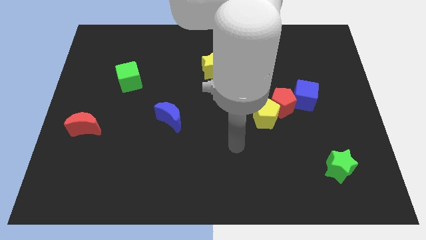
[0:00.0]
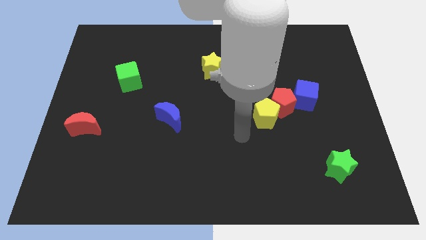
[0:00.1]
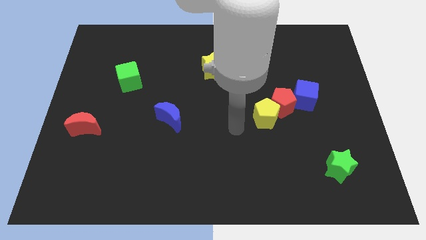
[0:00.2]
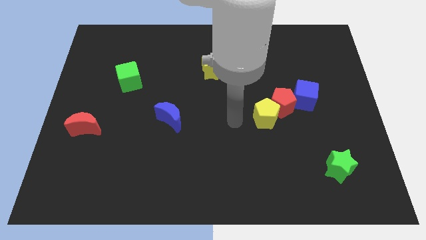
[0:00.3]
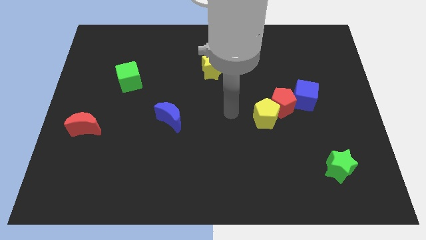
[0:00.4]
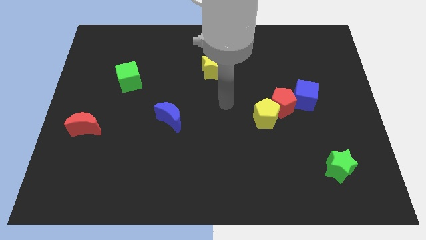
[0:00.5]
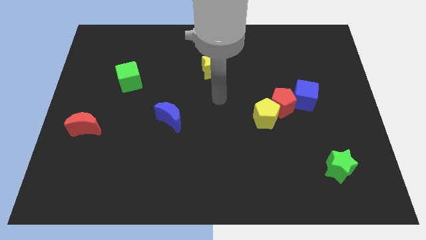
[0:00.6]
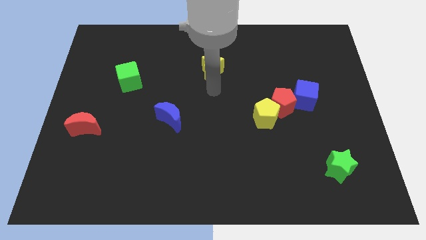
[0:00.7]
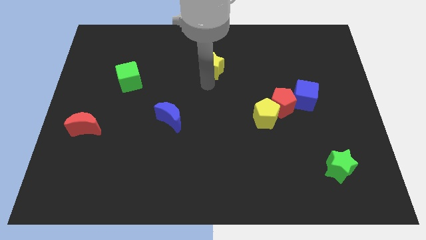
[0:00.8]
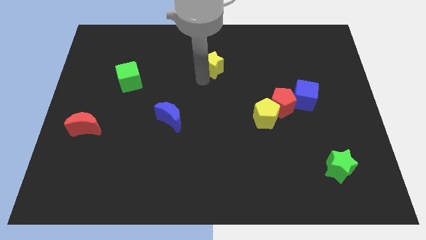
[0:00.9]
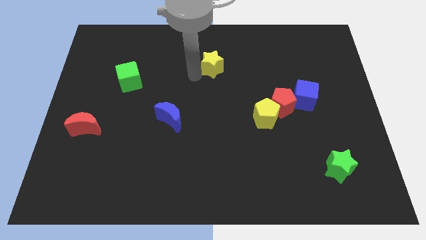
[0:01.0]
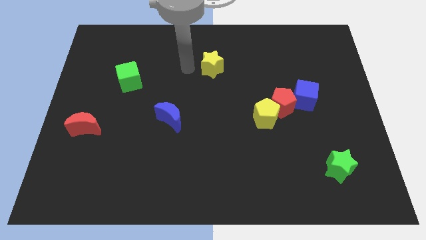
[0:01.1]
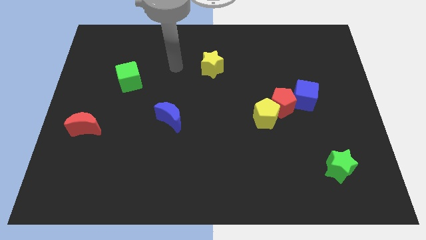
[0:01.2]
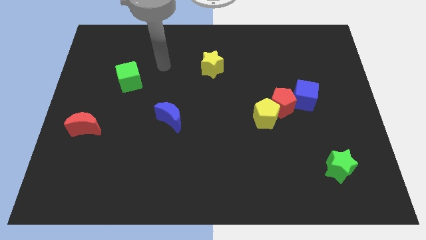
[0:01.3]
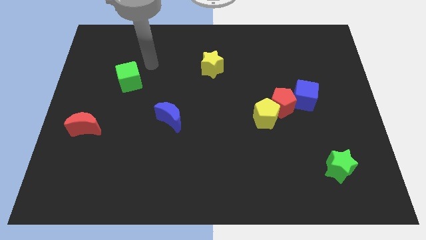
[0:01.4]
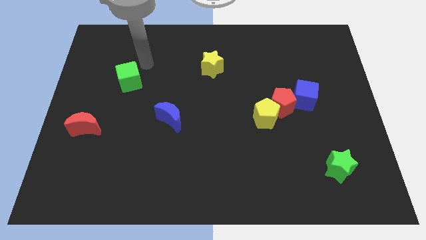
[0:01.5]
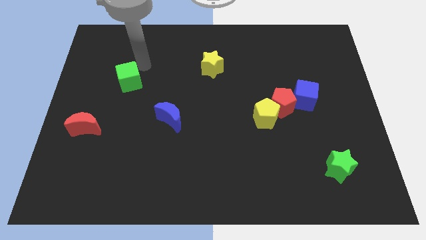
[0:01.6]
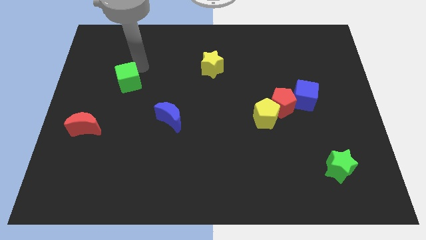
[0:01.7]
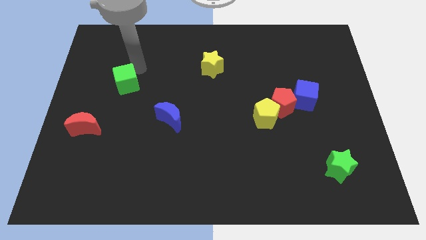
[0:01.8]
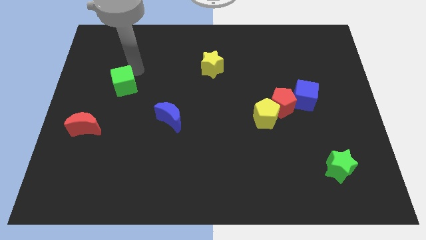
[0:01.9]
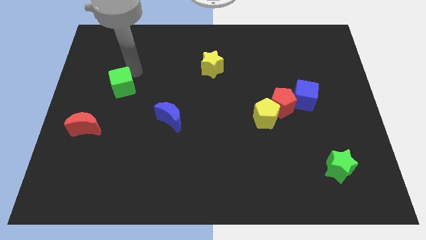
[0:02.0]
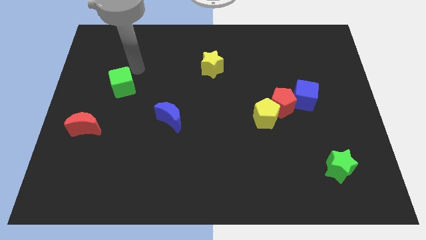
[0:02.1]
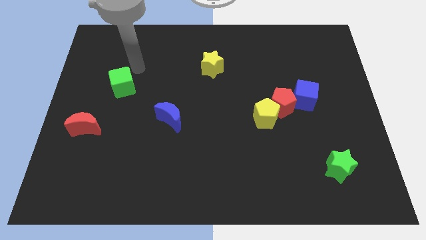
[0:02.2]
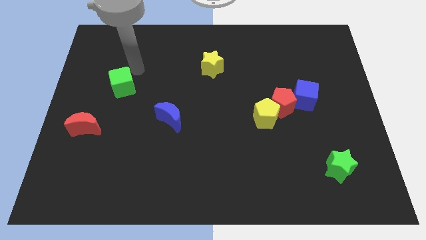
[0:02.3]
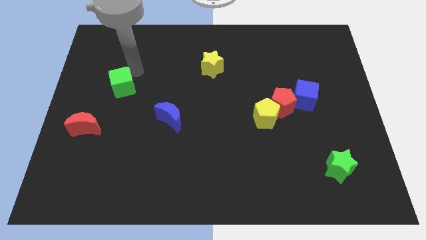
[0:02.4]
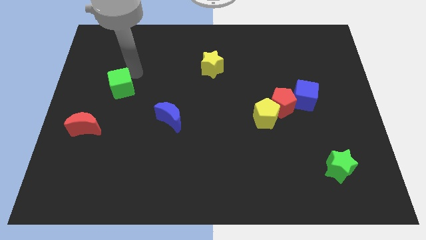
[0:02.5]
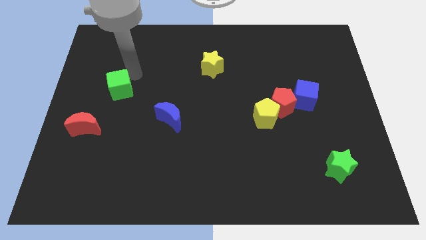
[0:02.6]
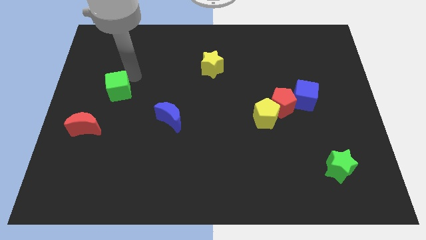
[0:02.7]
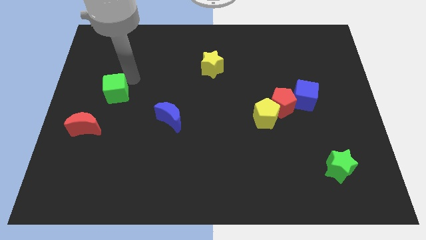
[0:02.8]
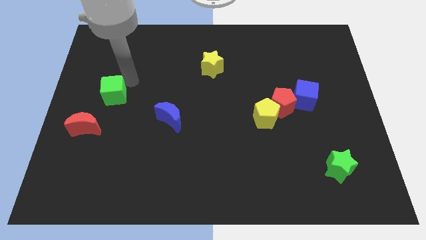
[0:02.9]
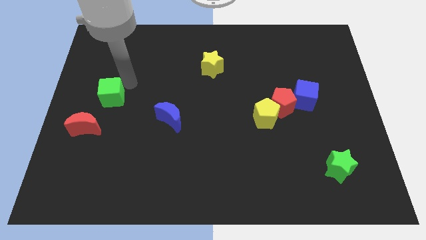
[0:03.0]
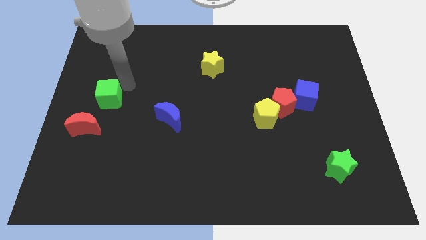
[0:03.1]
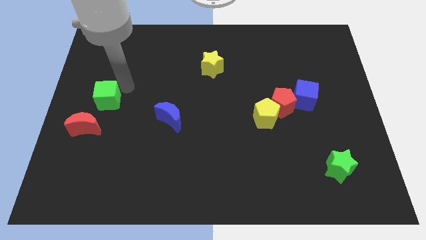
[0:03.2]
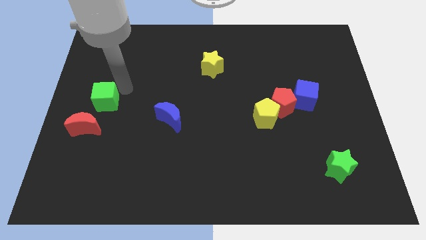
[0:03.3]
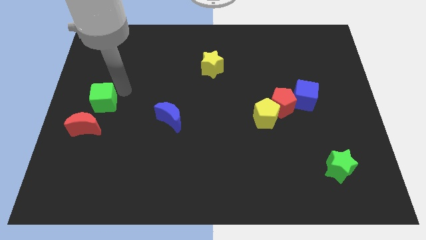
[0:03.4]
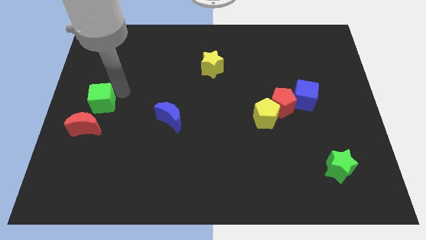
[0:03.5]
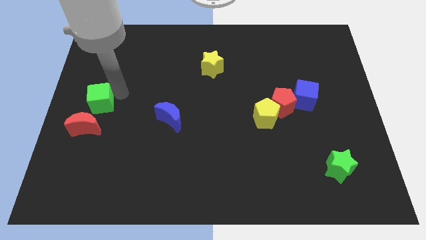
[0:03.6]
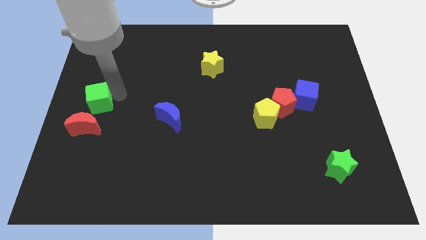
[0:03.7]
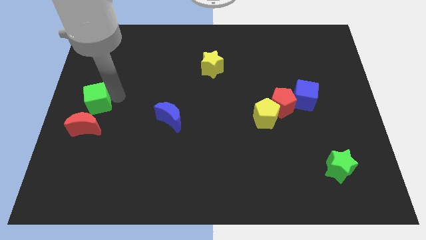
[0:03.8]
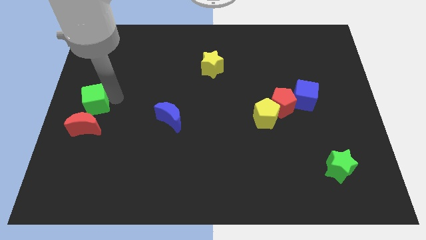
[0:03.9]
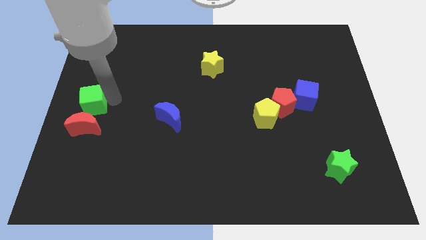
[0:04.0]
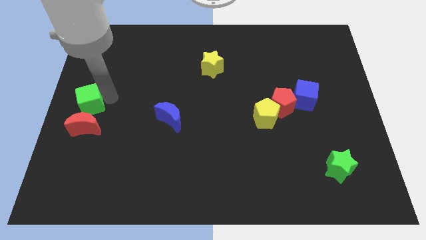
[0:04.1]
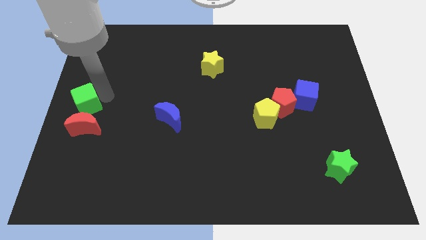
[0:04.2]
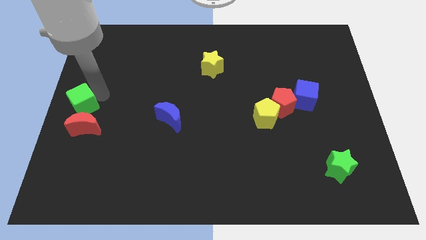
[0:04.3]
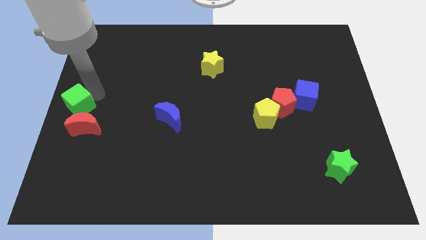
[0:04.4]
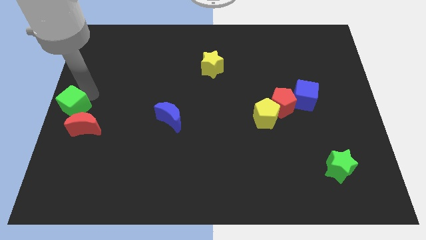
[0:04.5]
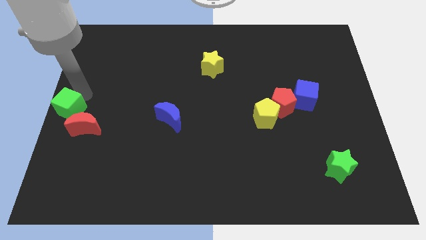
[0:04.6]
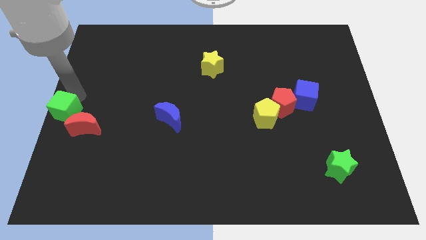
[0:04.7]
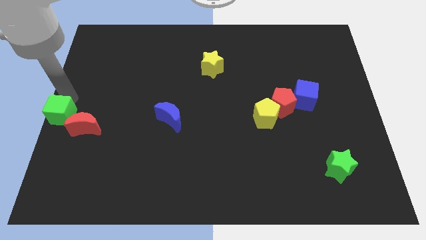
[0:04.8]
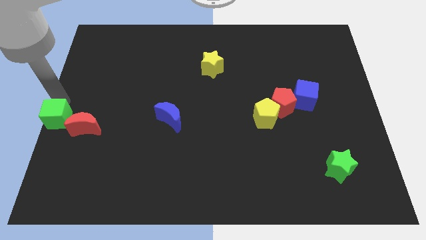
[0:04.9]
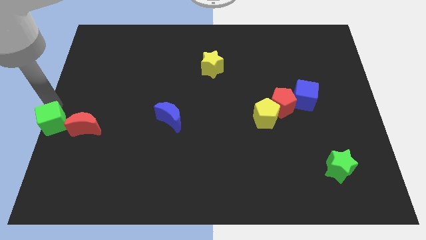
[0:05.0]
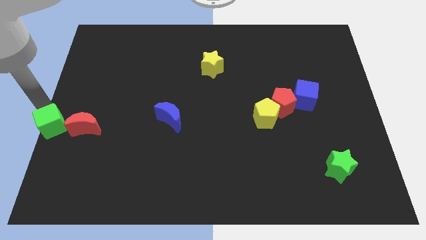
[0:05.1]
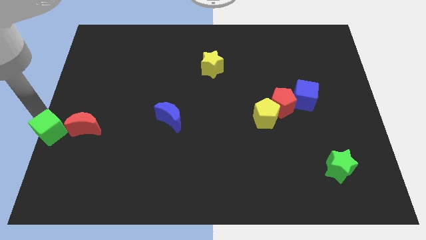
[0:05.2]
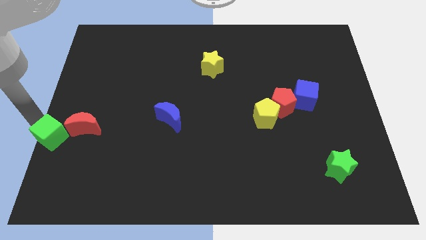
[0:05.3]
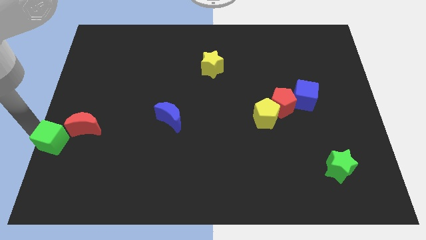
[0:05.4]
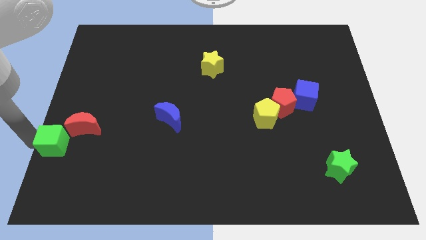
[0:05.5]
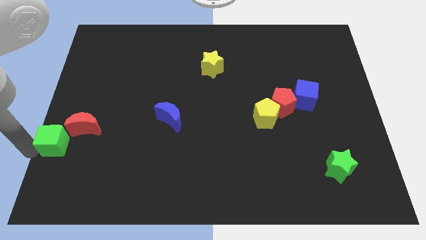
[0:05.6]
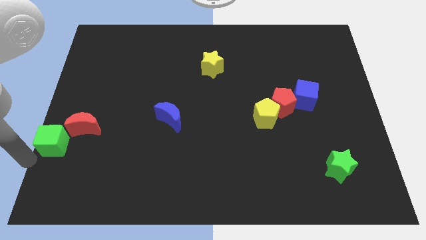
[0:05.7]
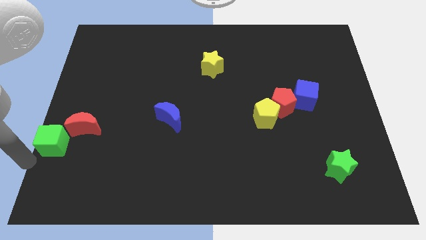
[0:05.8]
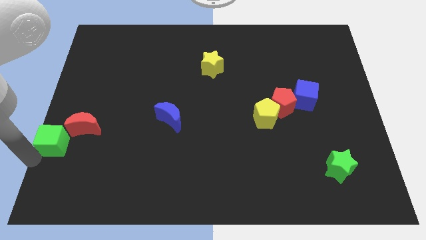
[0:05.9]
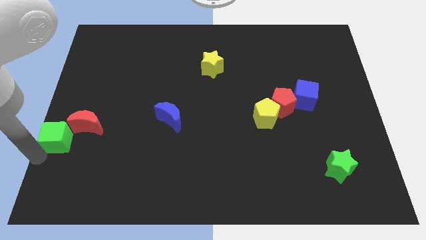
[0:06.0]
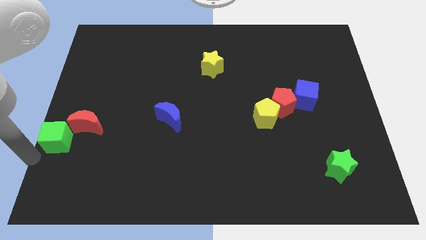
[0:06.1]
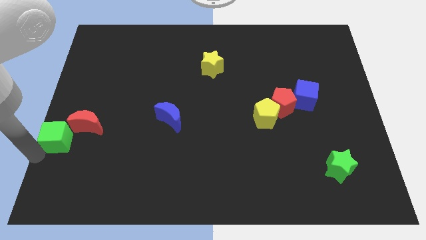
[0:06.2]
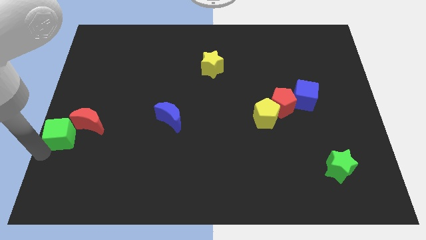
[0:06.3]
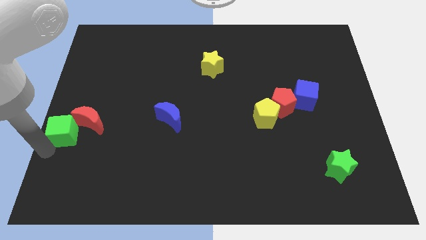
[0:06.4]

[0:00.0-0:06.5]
push the green cube close to the red moon
